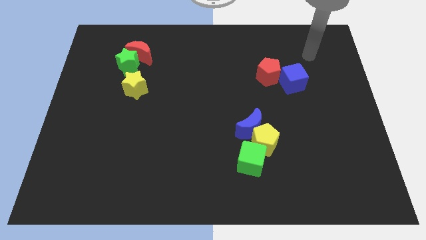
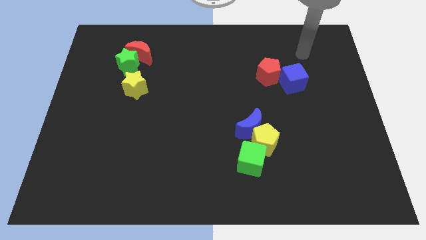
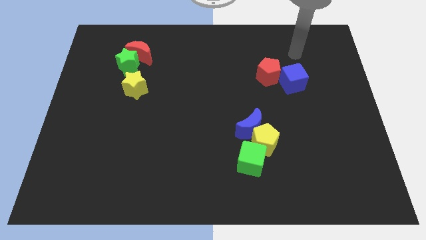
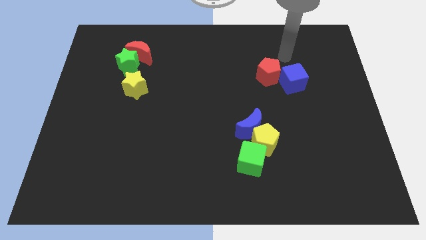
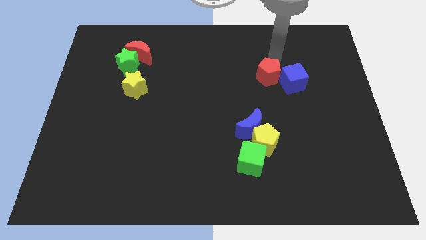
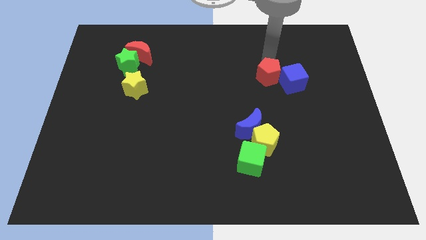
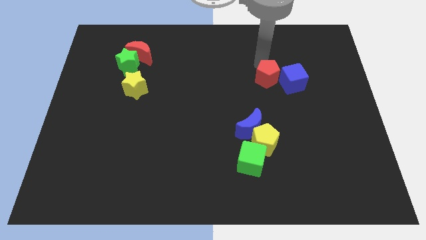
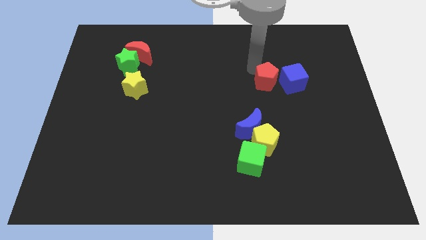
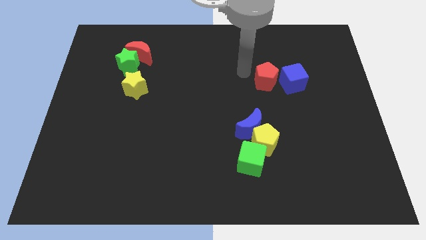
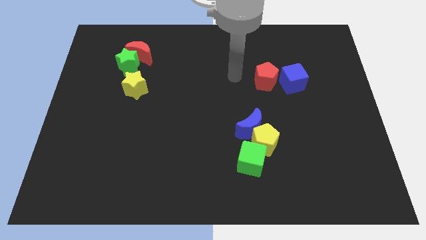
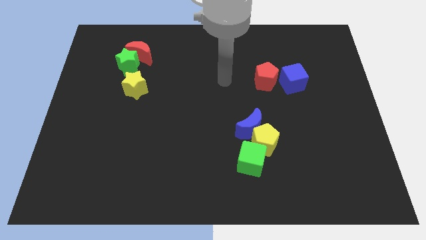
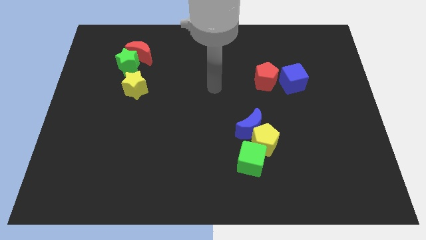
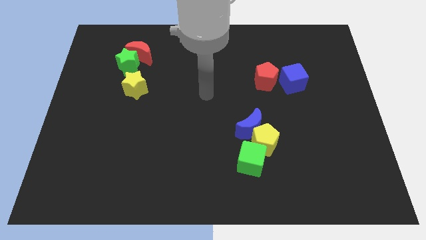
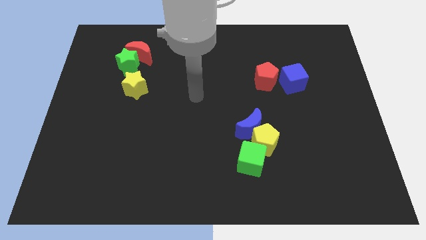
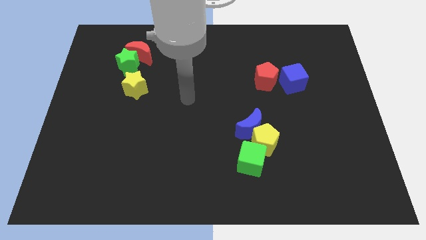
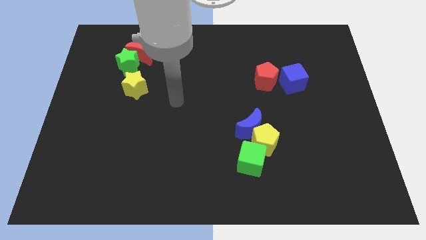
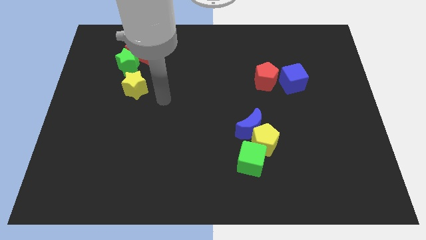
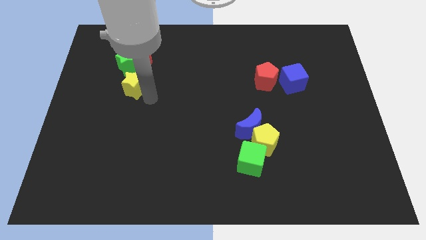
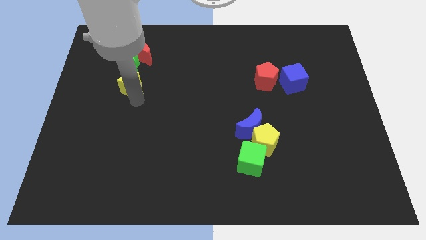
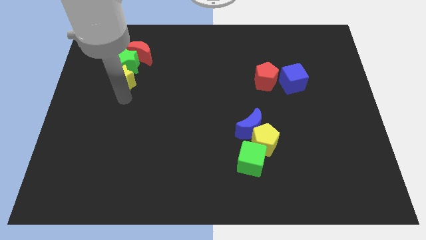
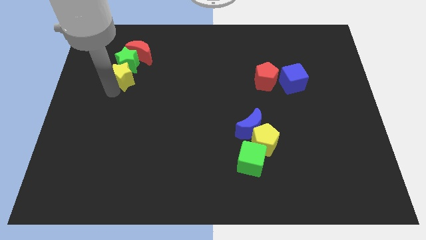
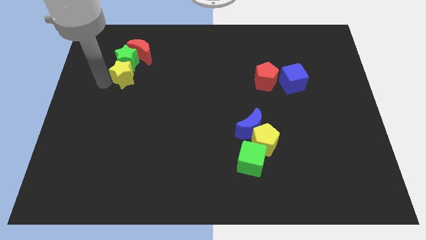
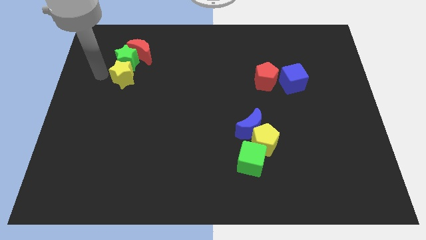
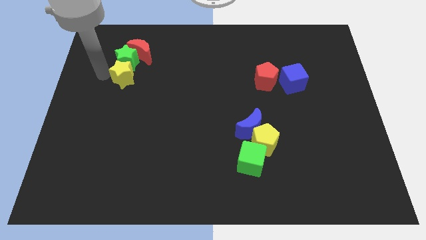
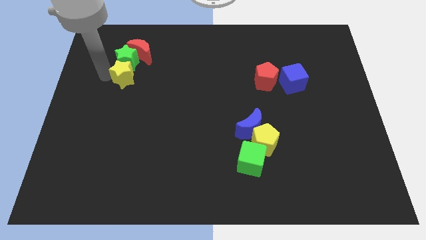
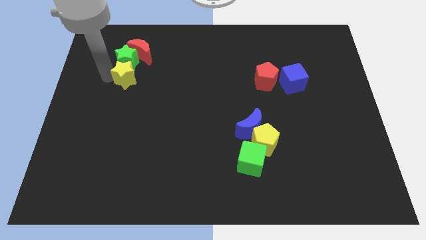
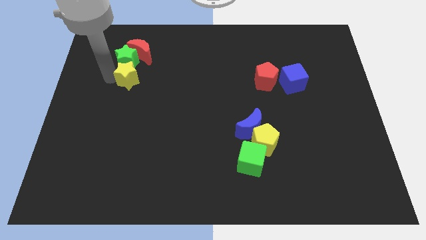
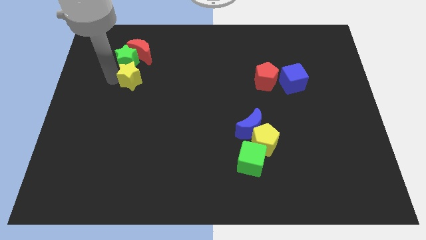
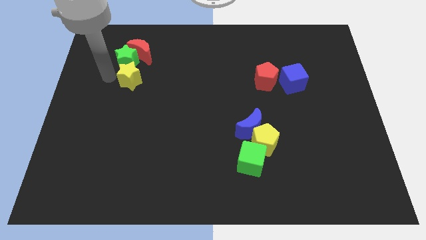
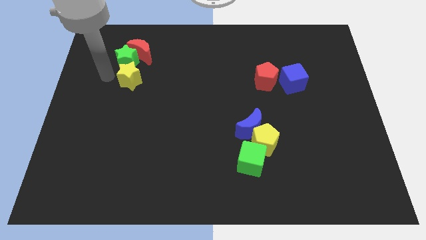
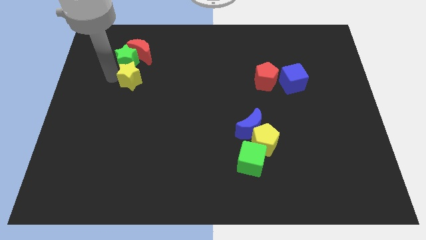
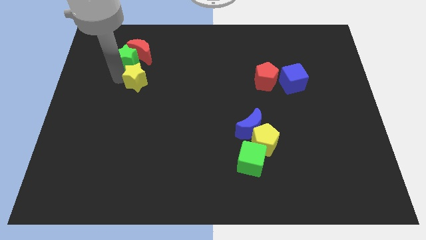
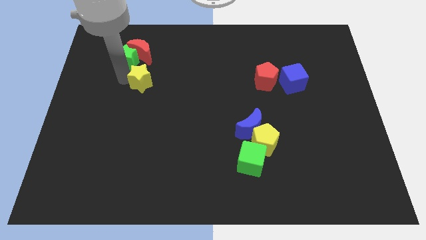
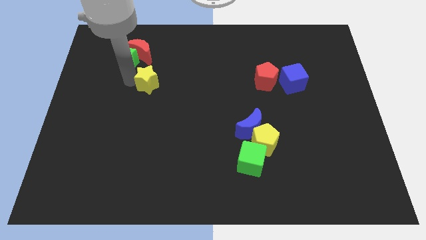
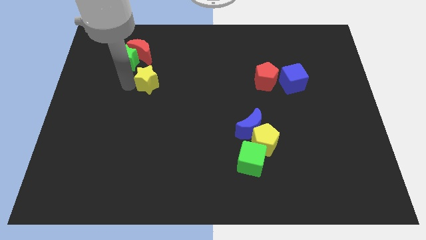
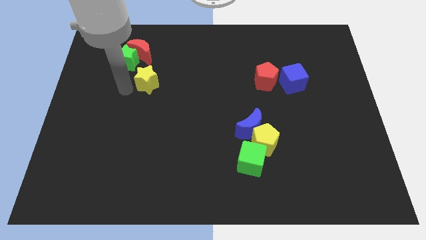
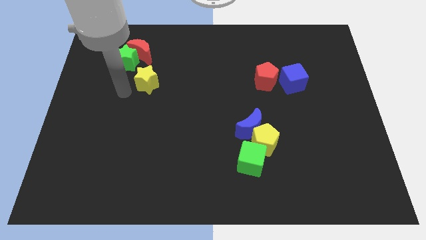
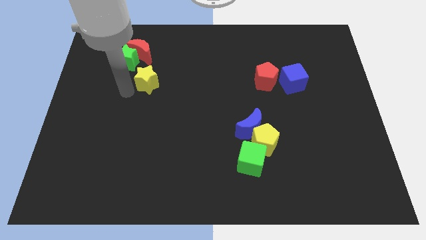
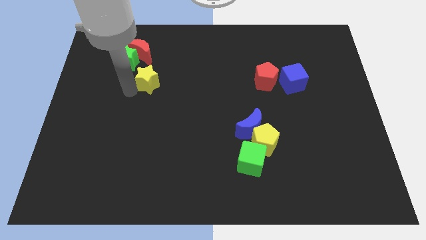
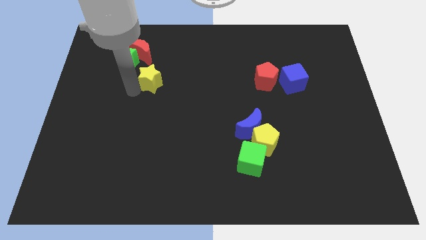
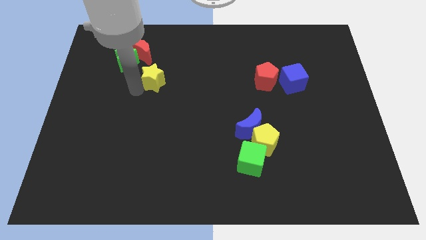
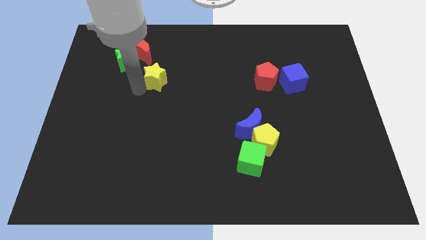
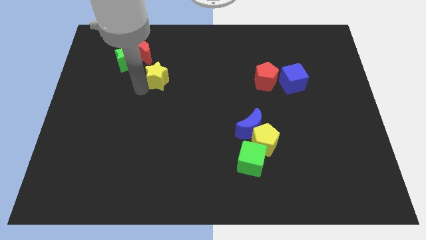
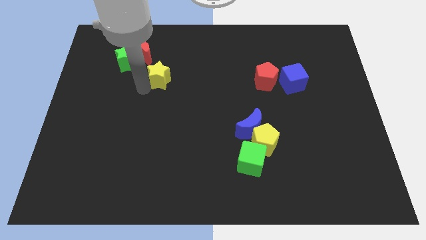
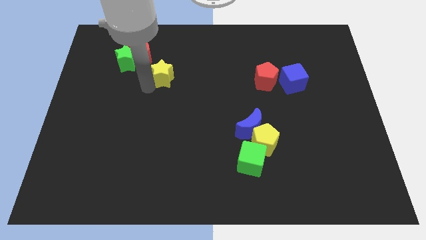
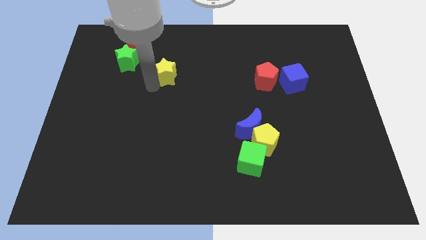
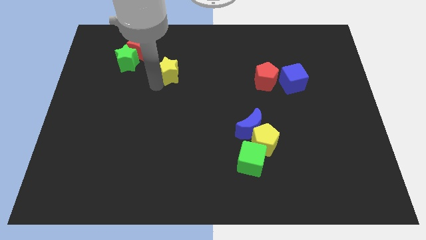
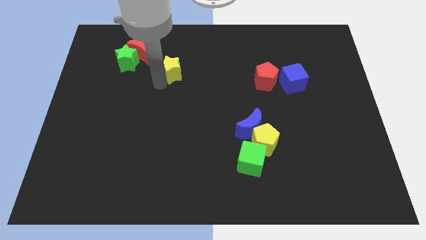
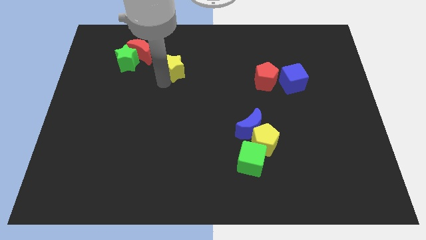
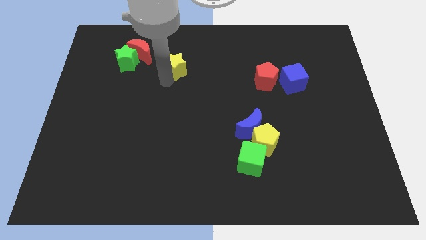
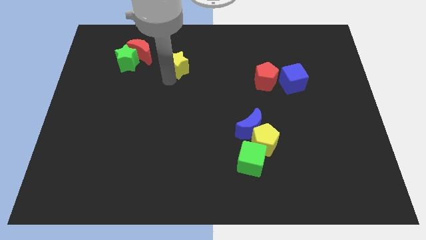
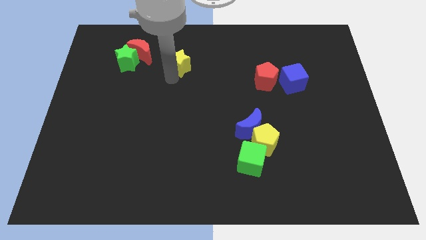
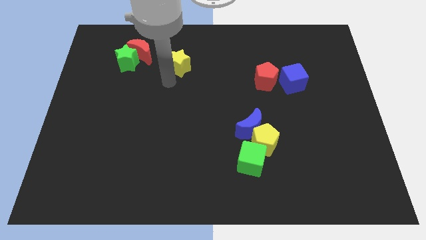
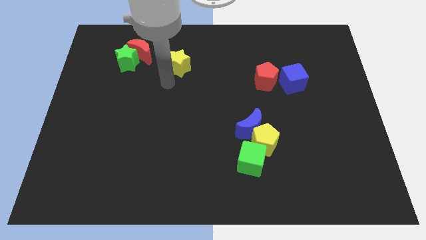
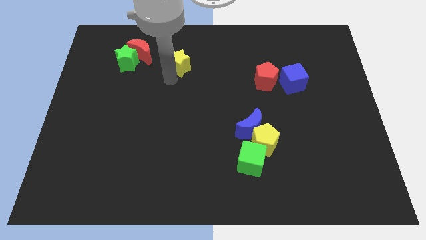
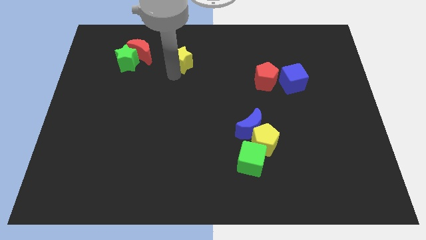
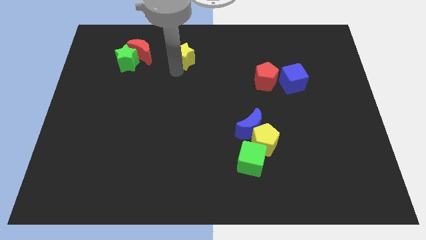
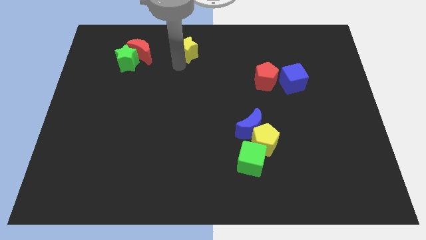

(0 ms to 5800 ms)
put the yellow star to the top side
